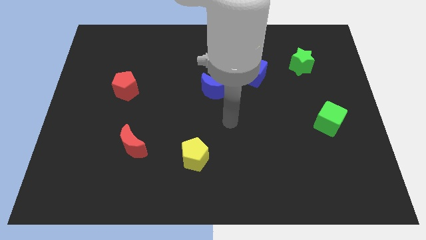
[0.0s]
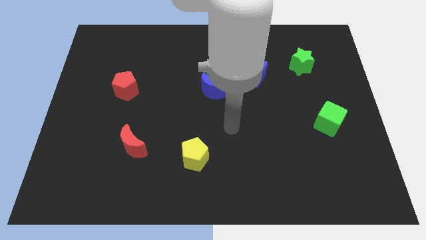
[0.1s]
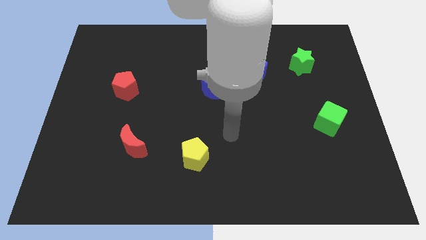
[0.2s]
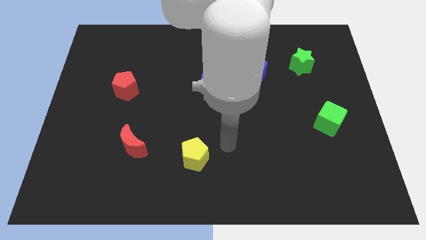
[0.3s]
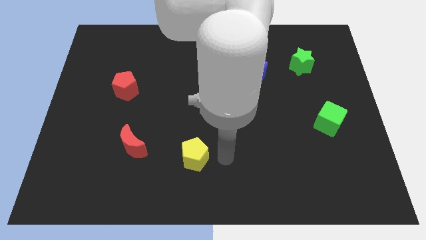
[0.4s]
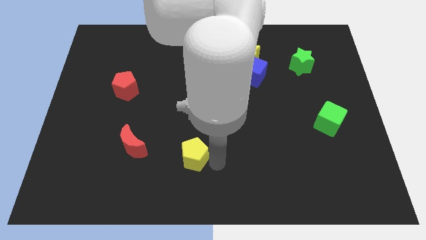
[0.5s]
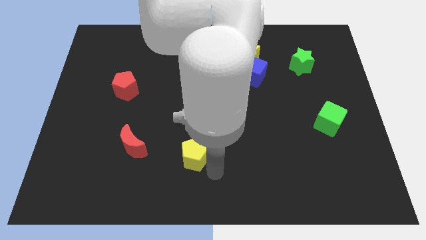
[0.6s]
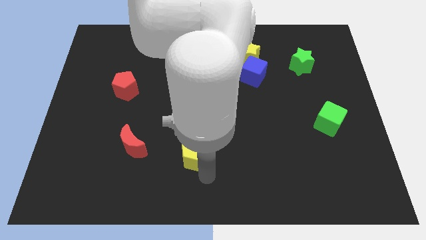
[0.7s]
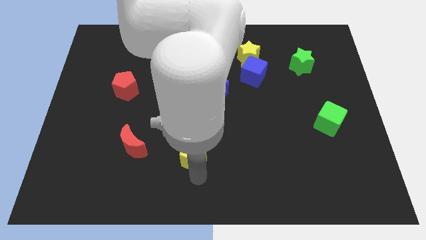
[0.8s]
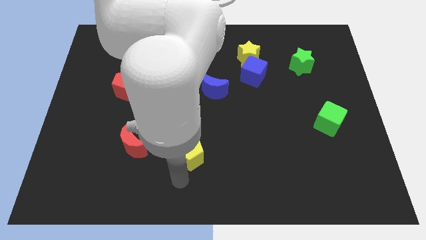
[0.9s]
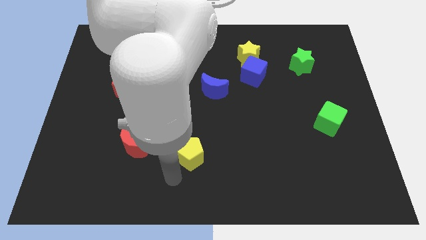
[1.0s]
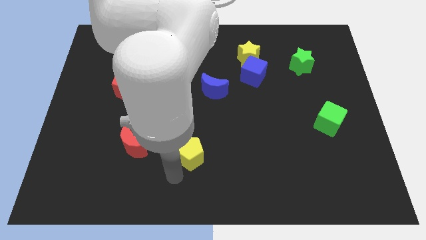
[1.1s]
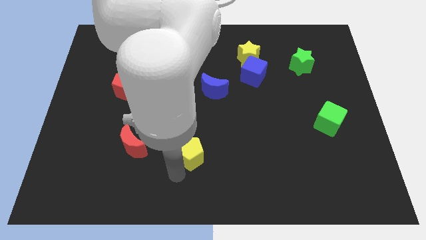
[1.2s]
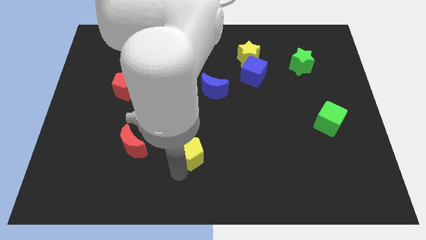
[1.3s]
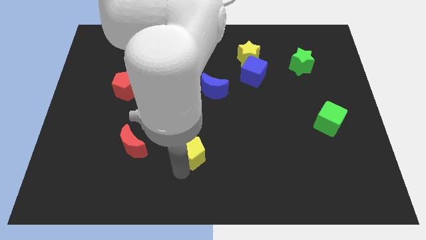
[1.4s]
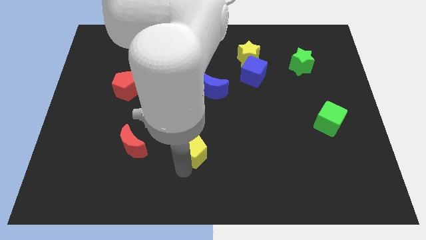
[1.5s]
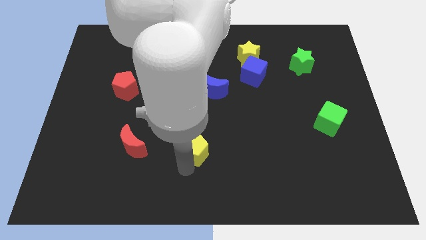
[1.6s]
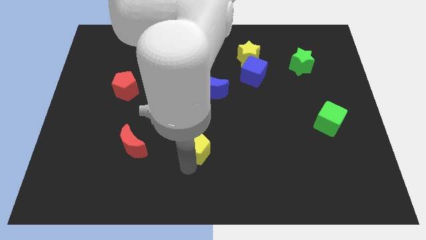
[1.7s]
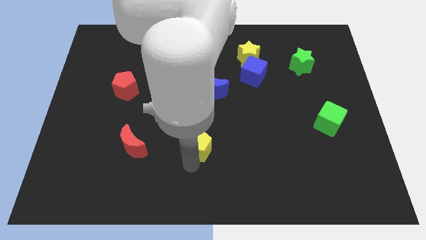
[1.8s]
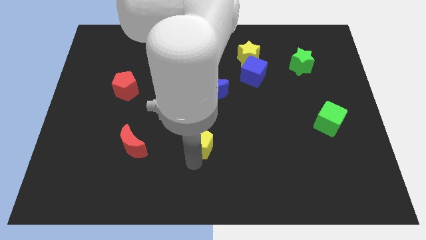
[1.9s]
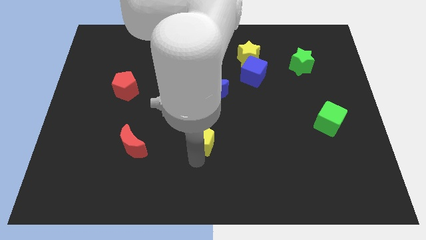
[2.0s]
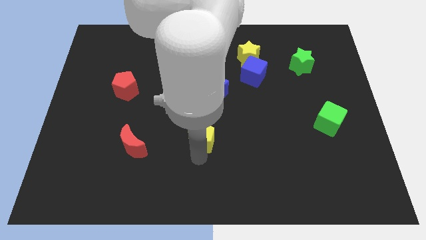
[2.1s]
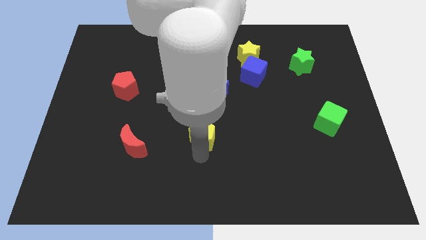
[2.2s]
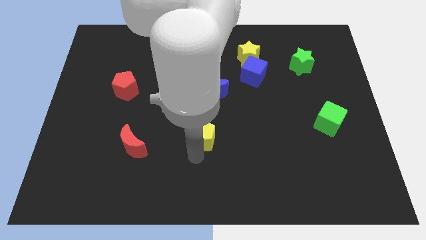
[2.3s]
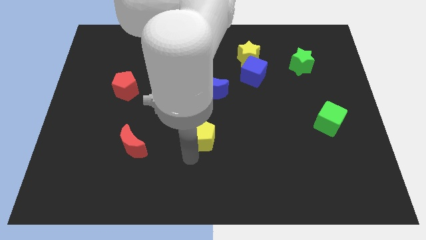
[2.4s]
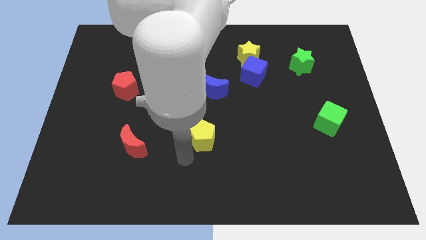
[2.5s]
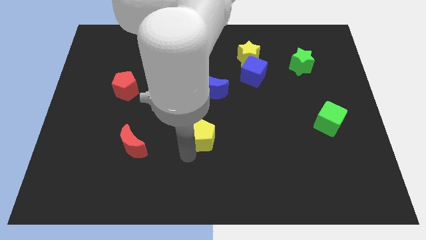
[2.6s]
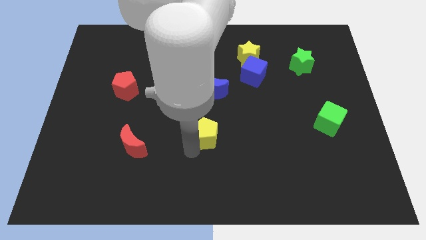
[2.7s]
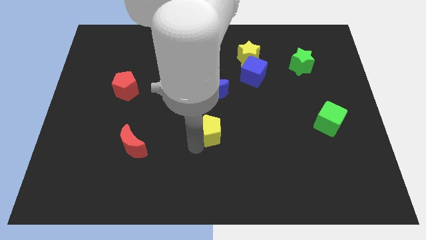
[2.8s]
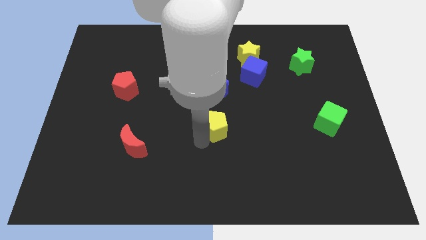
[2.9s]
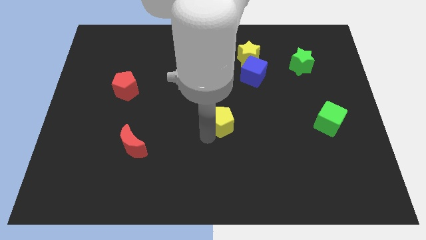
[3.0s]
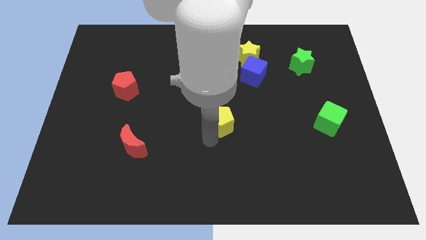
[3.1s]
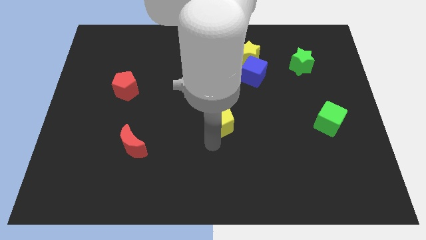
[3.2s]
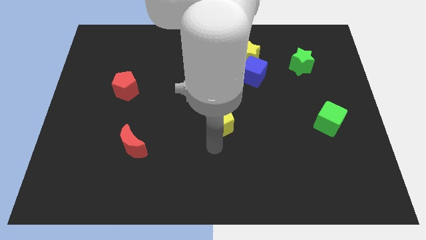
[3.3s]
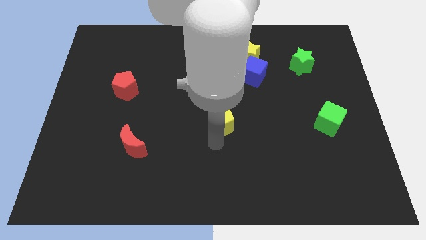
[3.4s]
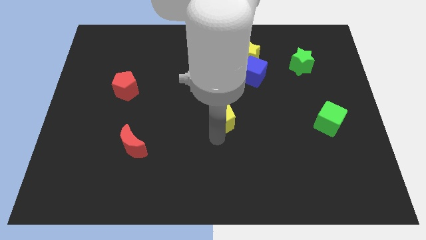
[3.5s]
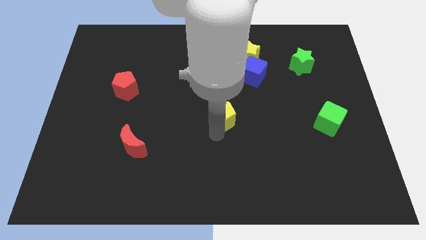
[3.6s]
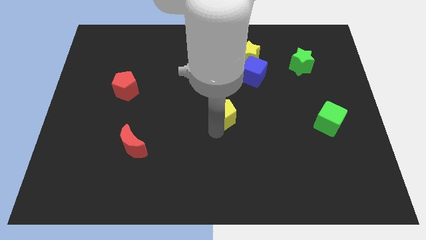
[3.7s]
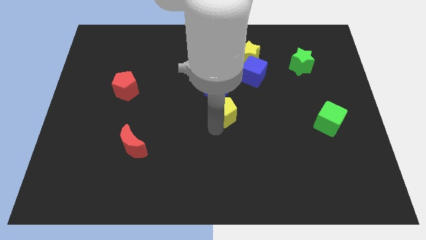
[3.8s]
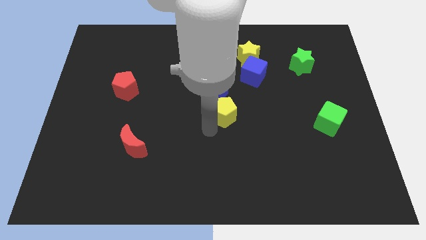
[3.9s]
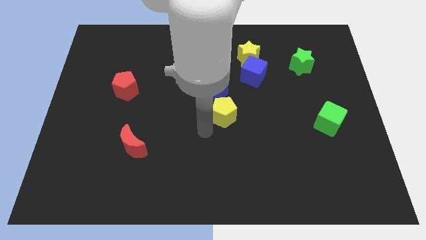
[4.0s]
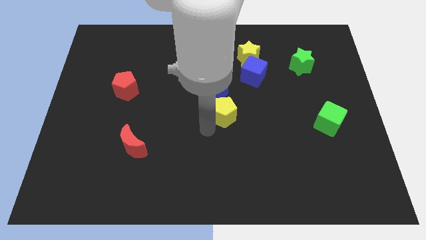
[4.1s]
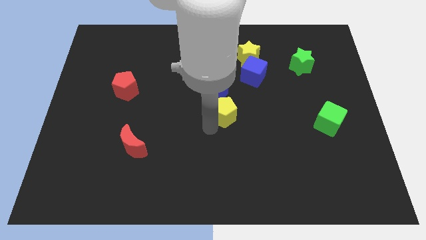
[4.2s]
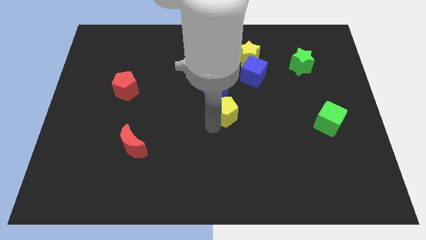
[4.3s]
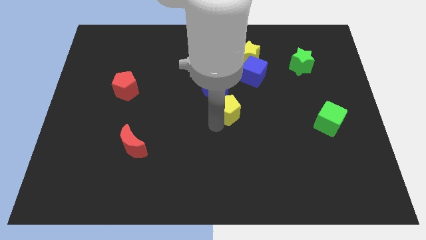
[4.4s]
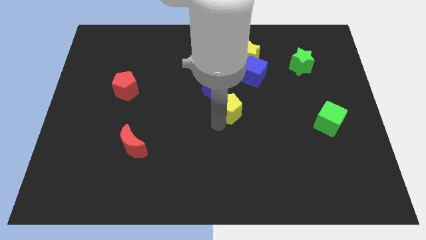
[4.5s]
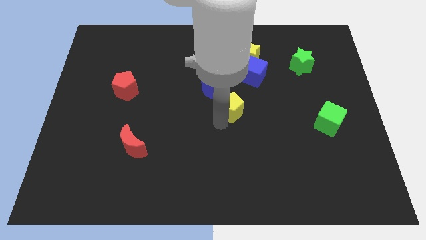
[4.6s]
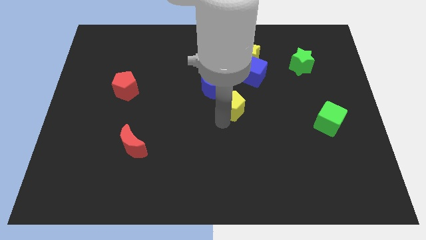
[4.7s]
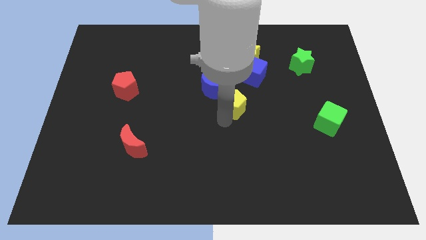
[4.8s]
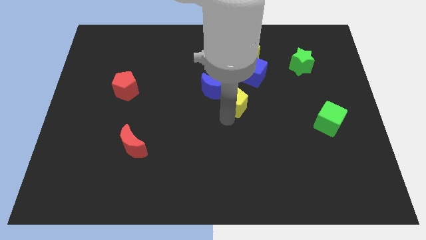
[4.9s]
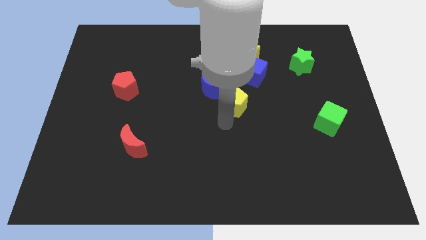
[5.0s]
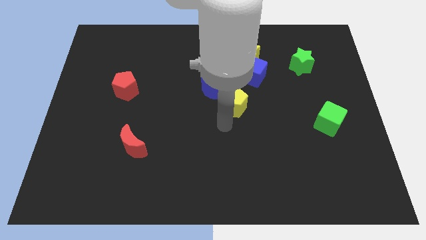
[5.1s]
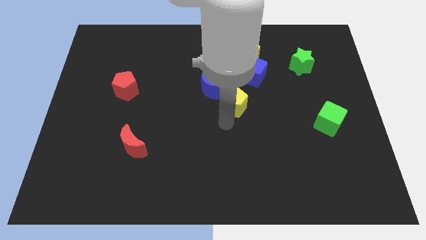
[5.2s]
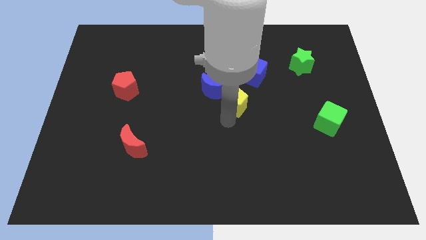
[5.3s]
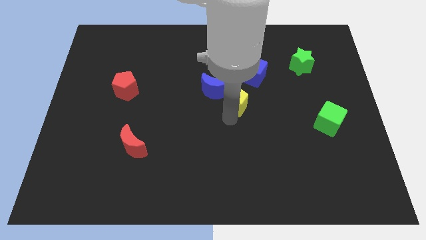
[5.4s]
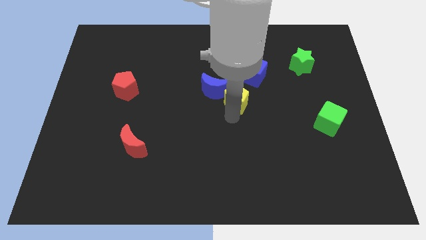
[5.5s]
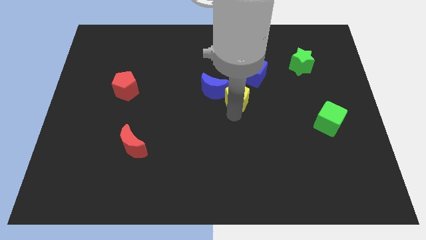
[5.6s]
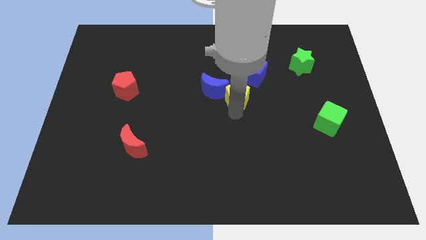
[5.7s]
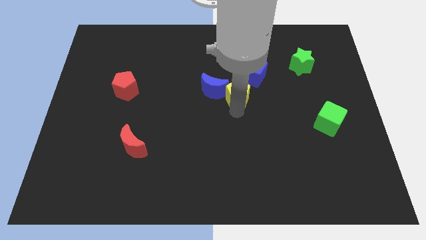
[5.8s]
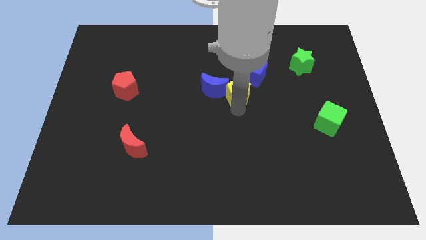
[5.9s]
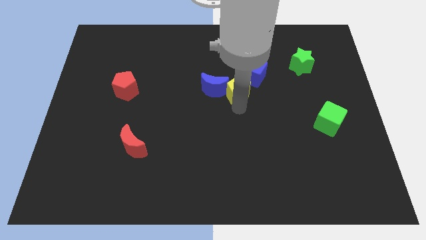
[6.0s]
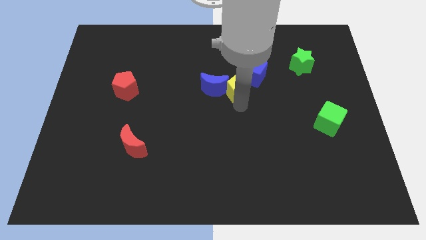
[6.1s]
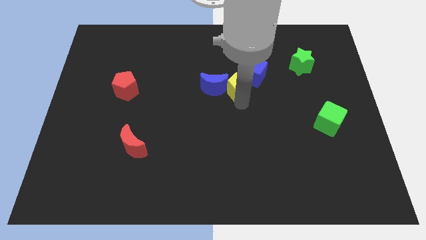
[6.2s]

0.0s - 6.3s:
slide the yellow pentagon to the blue cube

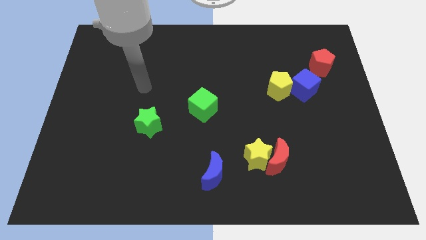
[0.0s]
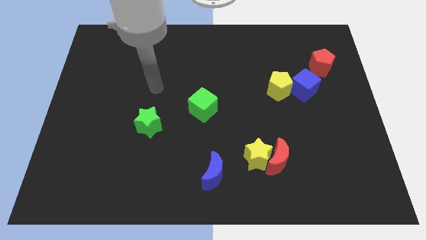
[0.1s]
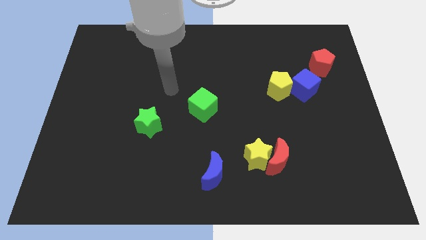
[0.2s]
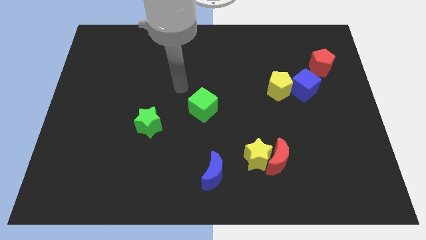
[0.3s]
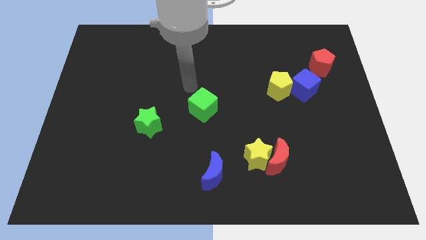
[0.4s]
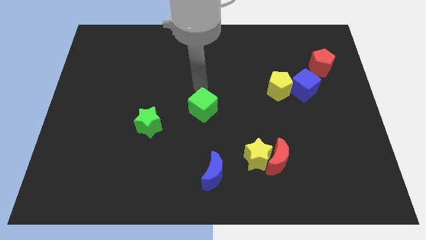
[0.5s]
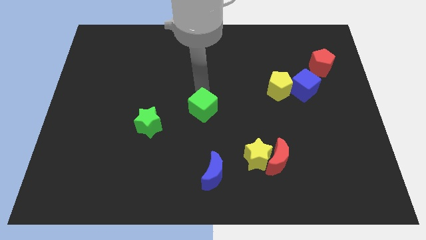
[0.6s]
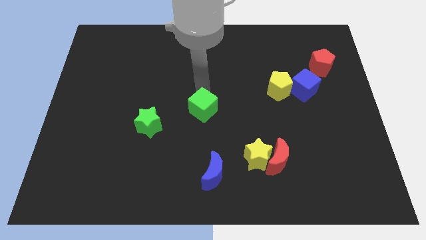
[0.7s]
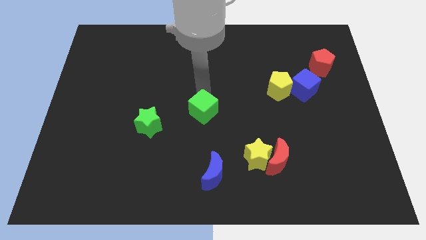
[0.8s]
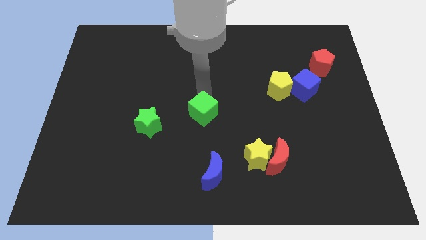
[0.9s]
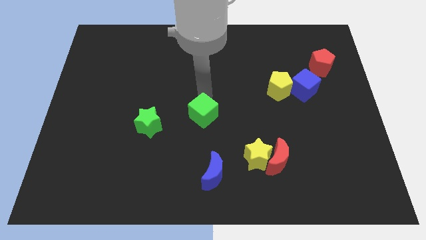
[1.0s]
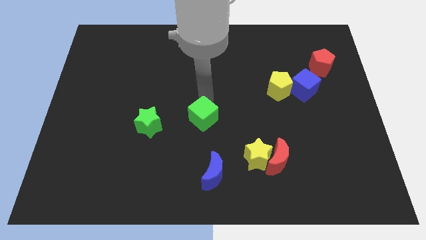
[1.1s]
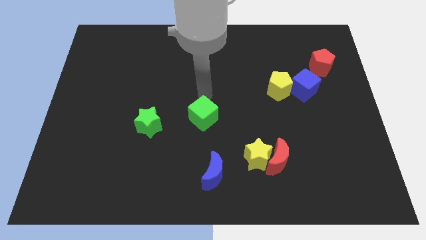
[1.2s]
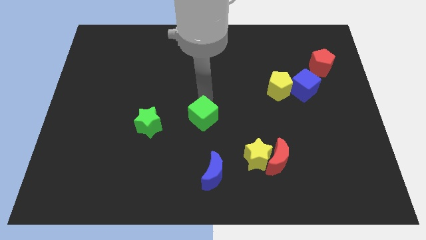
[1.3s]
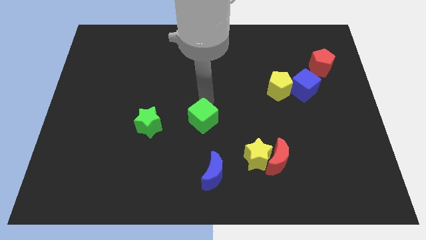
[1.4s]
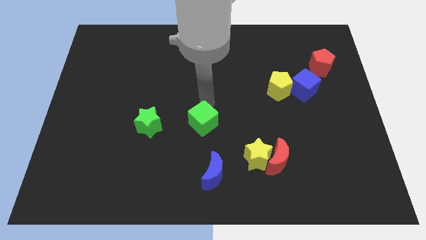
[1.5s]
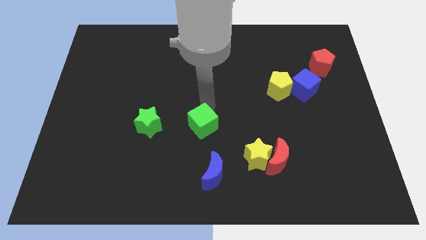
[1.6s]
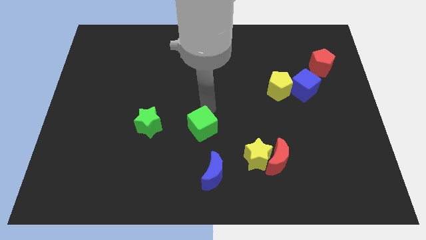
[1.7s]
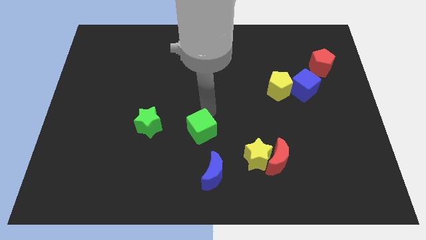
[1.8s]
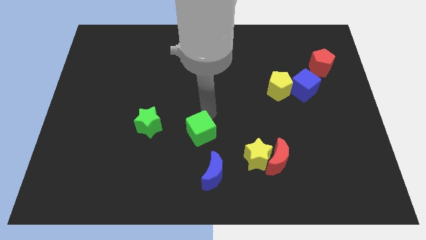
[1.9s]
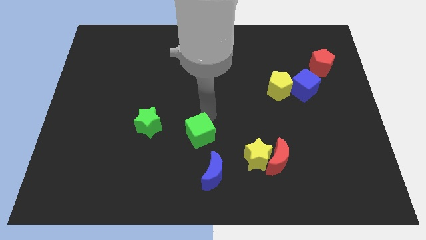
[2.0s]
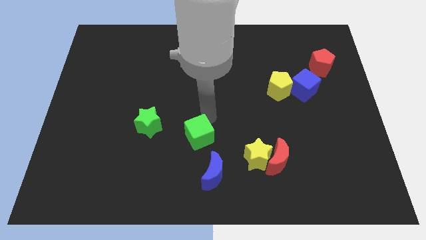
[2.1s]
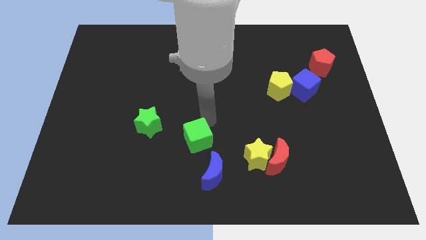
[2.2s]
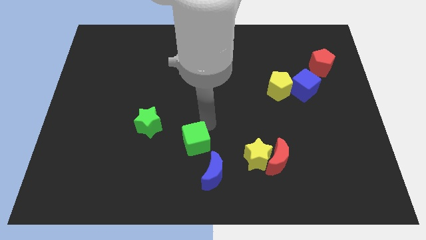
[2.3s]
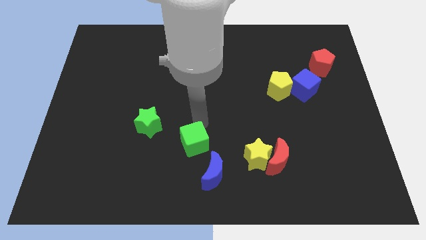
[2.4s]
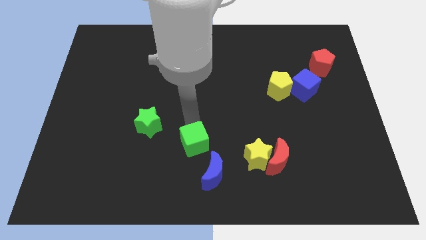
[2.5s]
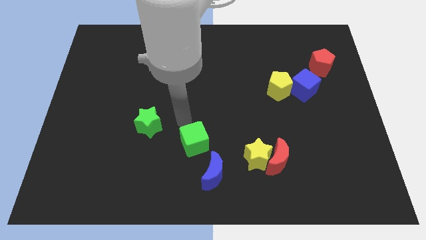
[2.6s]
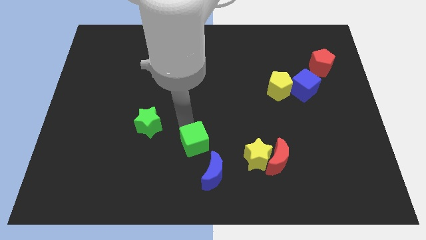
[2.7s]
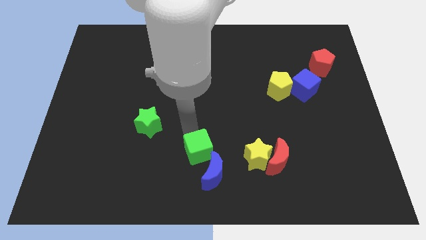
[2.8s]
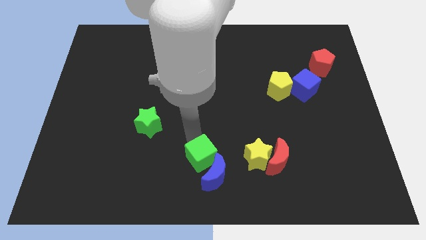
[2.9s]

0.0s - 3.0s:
push the green cube close to the blue moon
